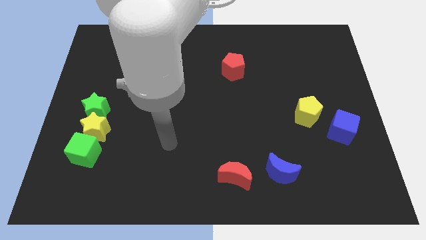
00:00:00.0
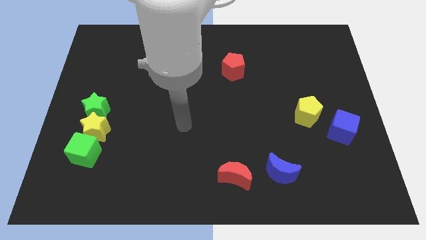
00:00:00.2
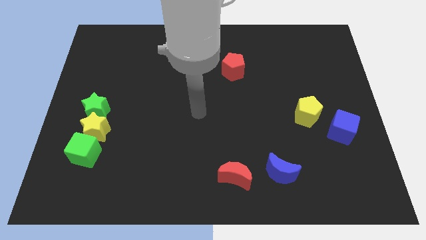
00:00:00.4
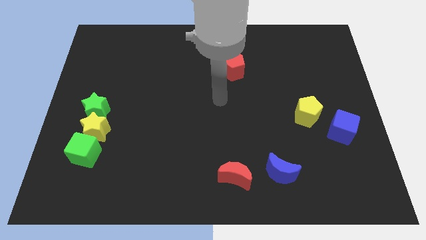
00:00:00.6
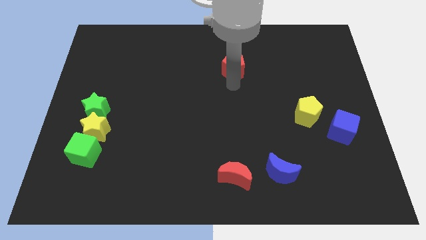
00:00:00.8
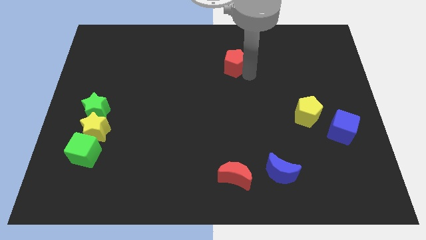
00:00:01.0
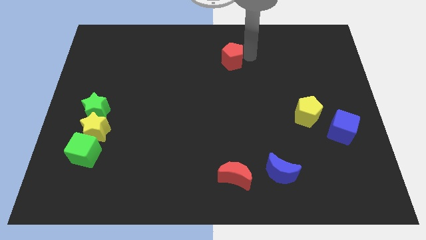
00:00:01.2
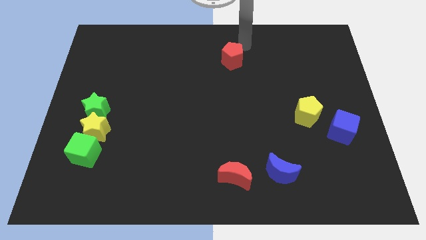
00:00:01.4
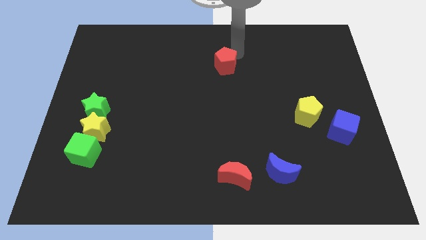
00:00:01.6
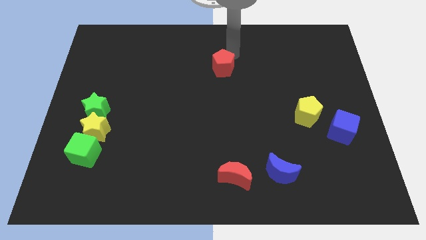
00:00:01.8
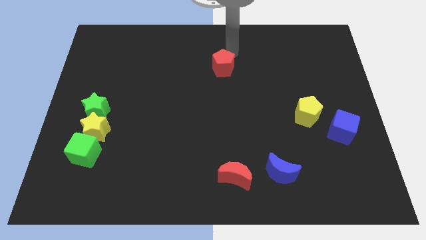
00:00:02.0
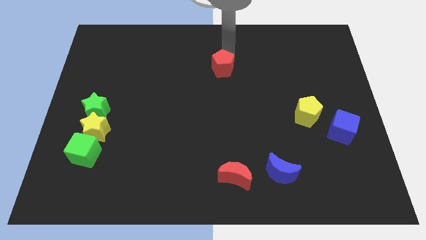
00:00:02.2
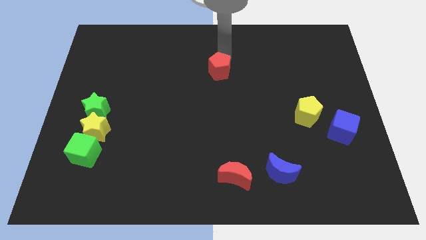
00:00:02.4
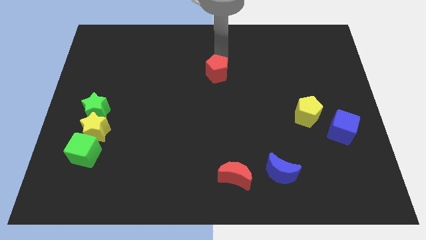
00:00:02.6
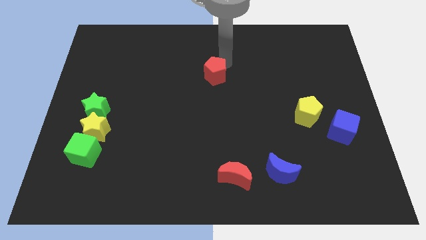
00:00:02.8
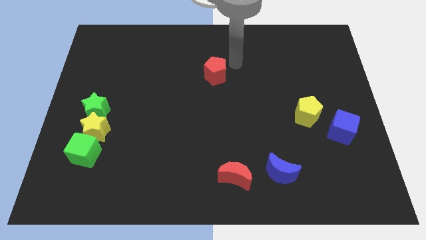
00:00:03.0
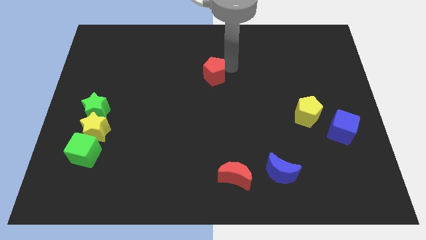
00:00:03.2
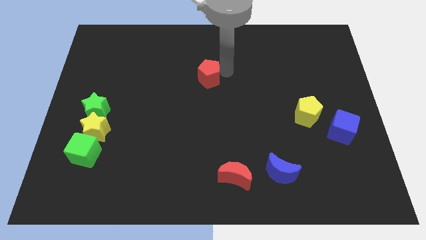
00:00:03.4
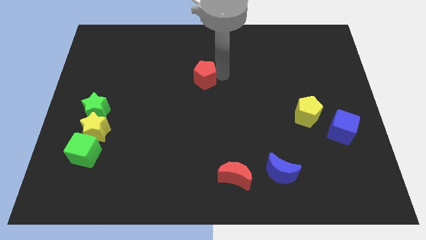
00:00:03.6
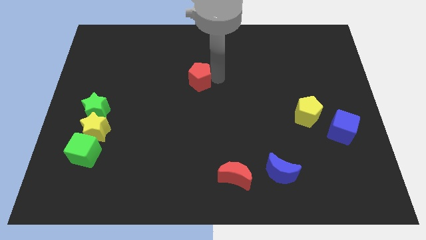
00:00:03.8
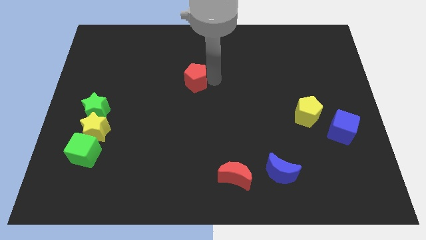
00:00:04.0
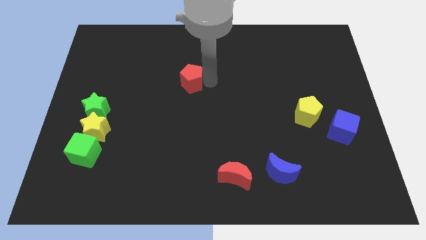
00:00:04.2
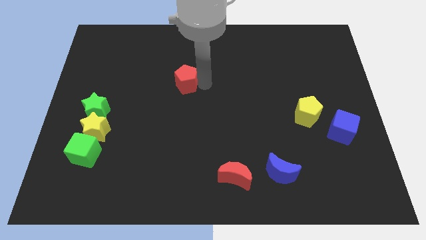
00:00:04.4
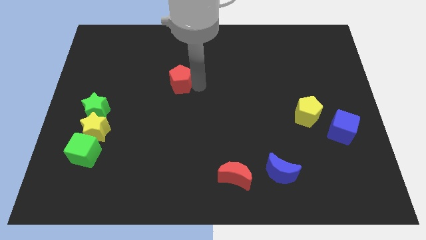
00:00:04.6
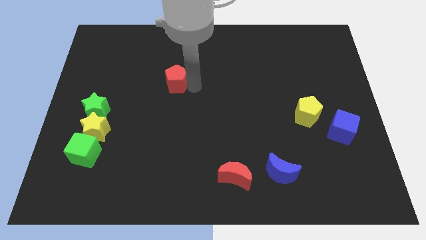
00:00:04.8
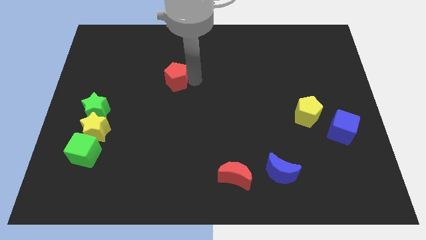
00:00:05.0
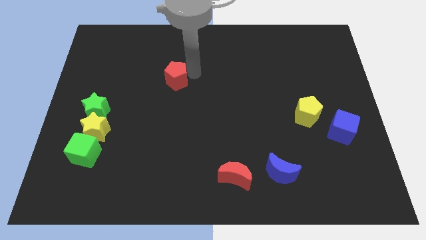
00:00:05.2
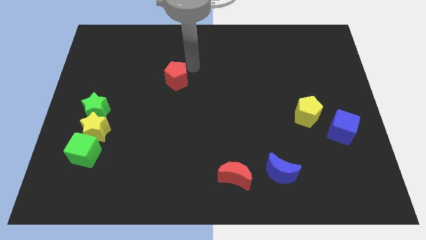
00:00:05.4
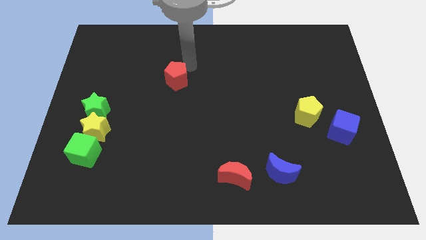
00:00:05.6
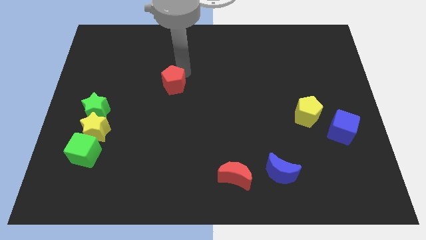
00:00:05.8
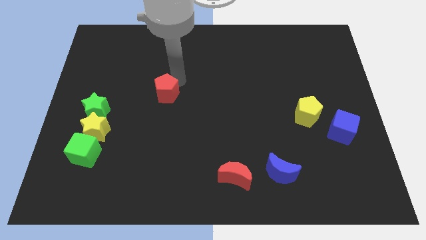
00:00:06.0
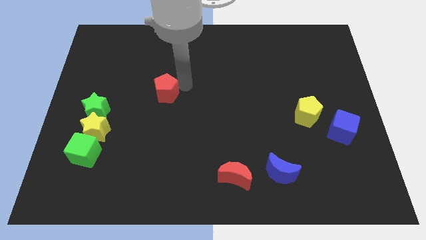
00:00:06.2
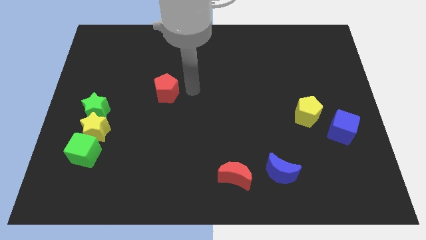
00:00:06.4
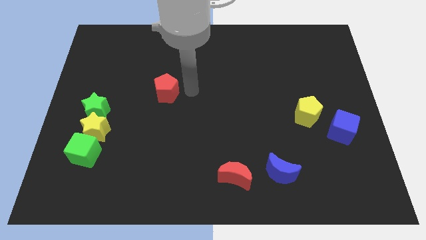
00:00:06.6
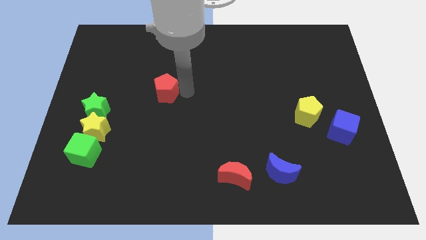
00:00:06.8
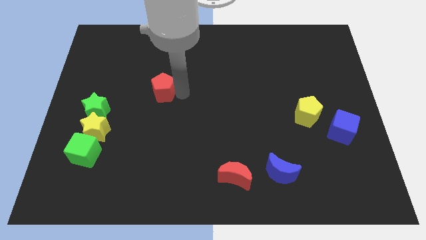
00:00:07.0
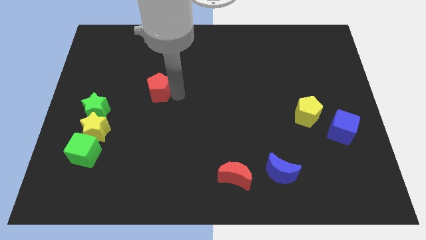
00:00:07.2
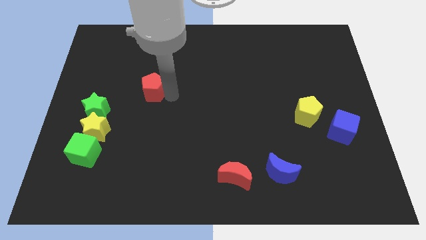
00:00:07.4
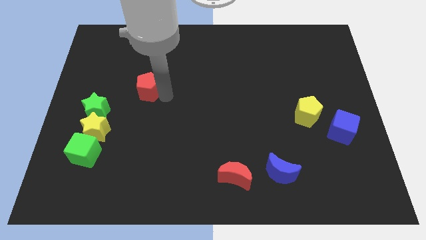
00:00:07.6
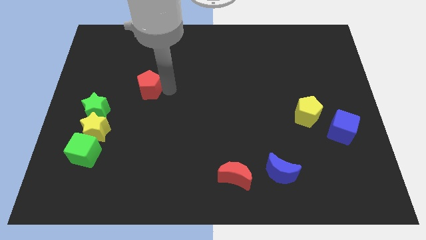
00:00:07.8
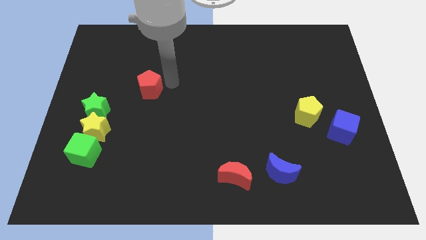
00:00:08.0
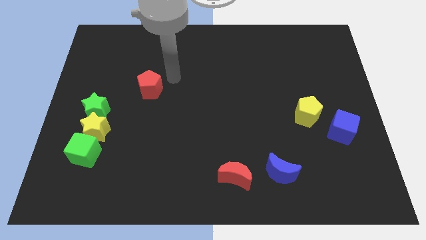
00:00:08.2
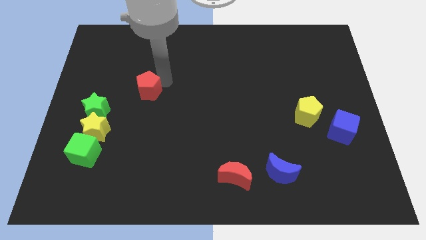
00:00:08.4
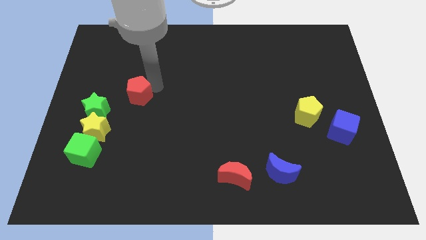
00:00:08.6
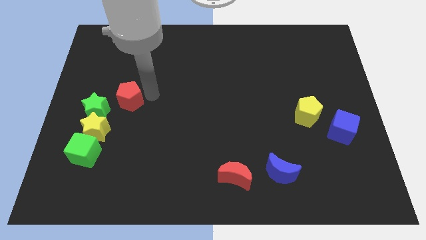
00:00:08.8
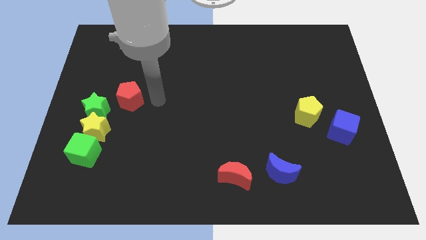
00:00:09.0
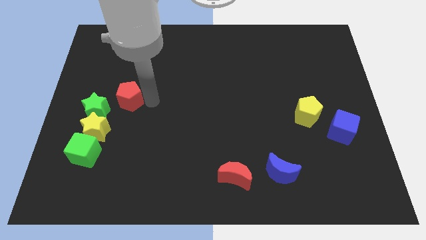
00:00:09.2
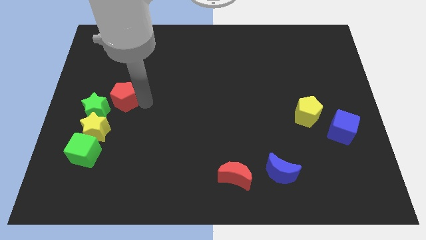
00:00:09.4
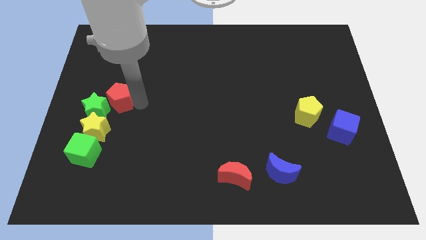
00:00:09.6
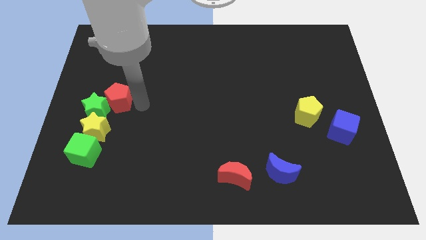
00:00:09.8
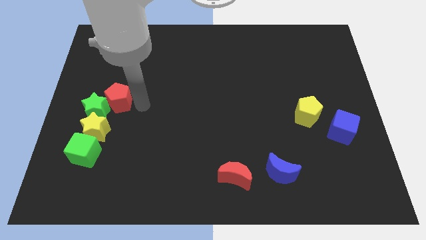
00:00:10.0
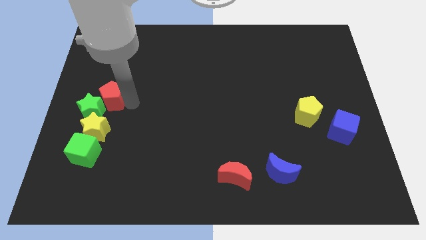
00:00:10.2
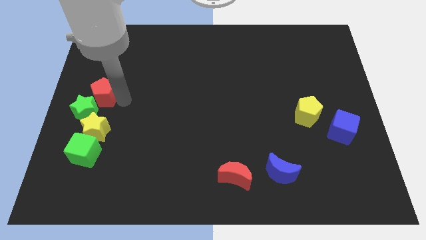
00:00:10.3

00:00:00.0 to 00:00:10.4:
move the red pentagon to the left side

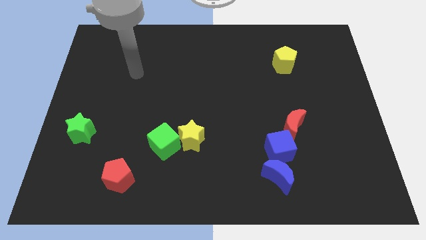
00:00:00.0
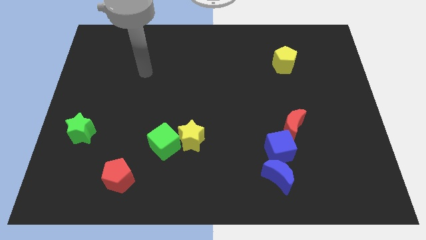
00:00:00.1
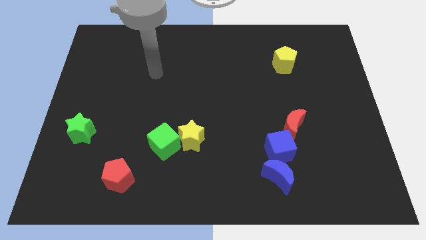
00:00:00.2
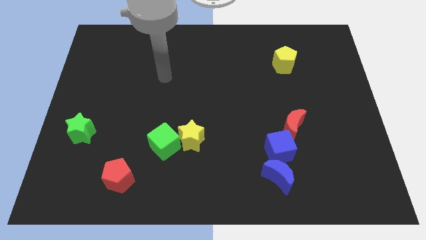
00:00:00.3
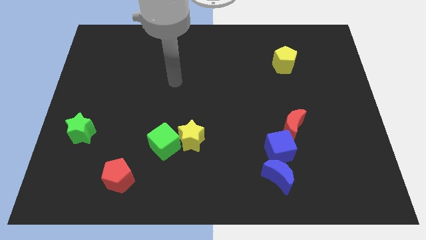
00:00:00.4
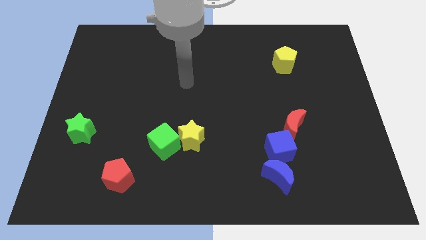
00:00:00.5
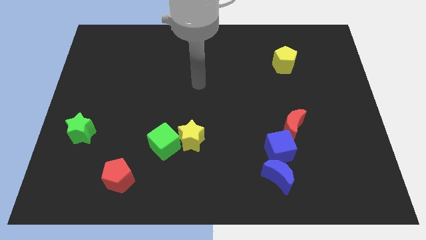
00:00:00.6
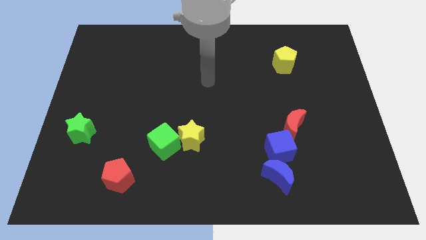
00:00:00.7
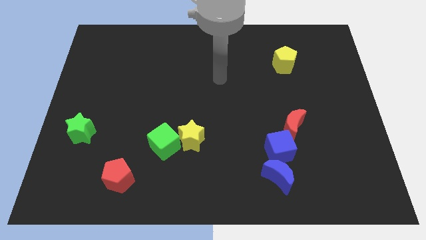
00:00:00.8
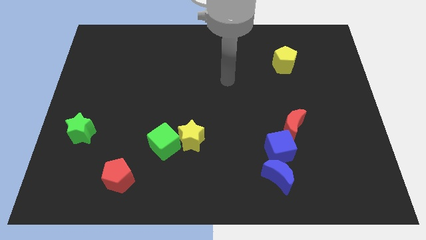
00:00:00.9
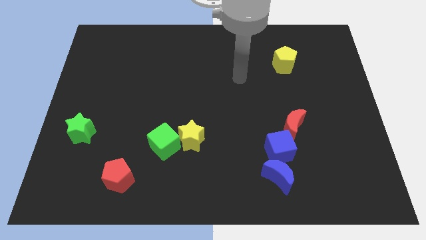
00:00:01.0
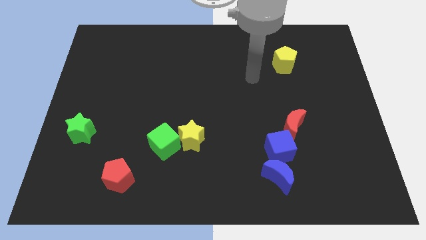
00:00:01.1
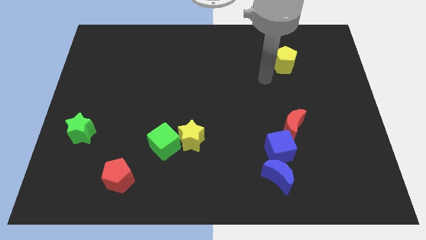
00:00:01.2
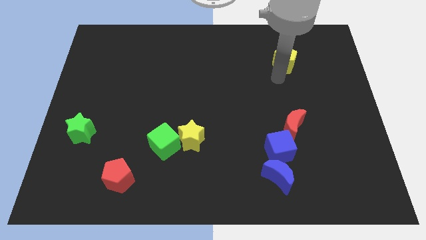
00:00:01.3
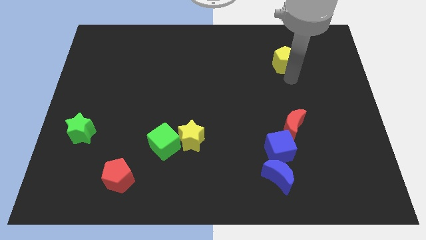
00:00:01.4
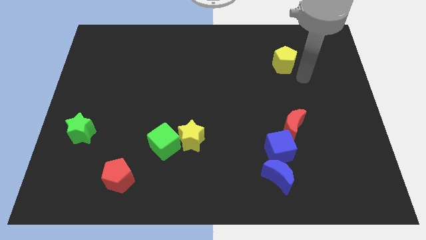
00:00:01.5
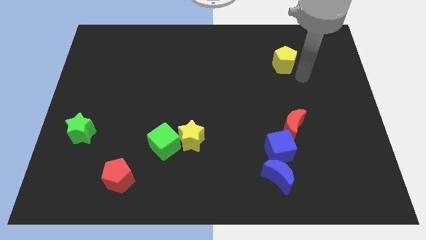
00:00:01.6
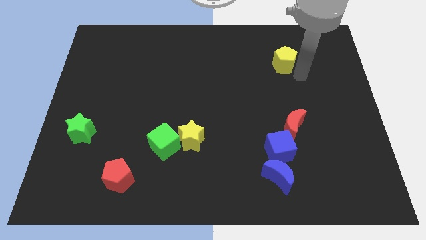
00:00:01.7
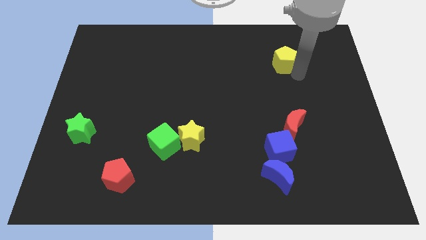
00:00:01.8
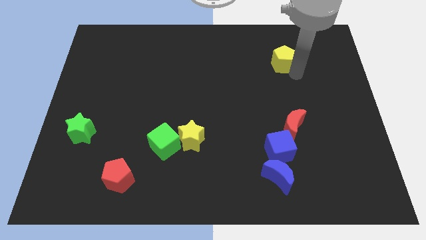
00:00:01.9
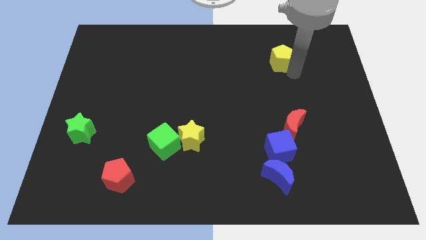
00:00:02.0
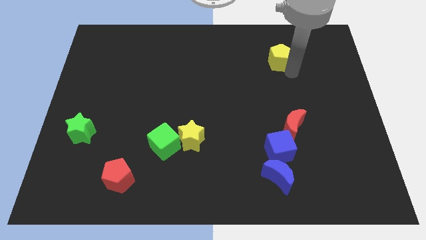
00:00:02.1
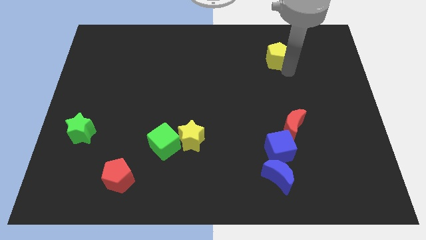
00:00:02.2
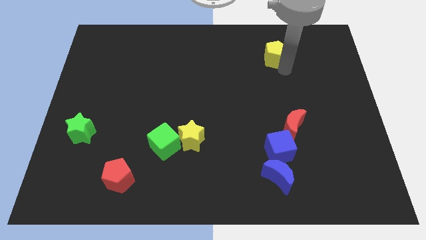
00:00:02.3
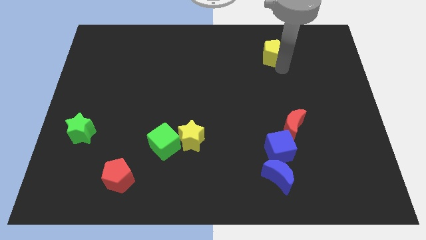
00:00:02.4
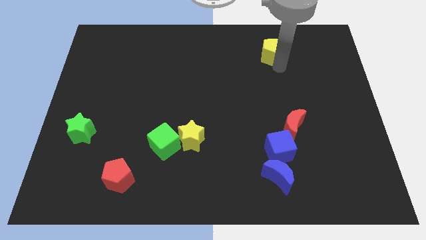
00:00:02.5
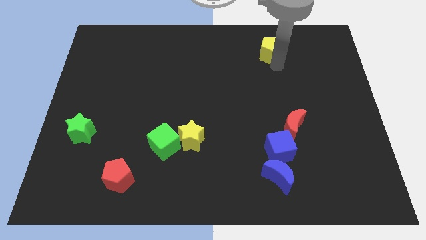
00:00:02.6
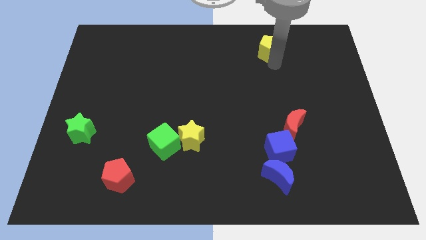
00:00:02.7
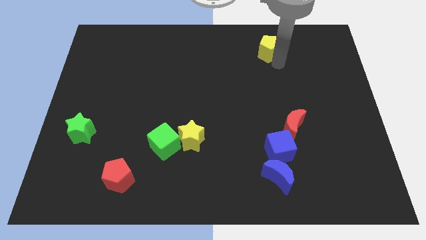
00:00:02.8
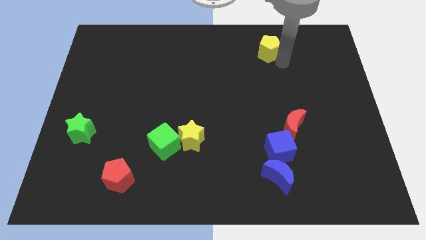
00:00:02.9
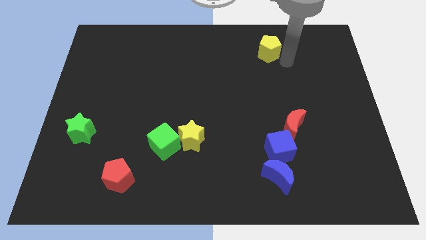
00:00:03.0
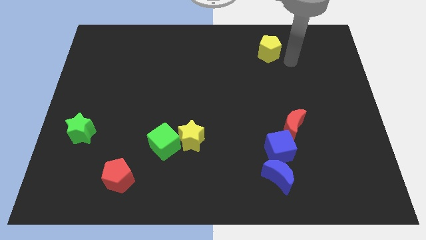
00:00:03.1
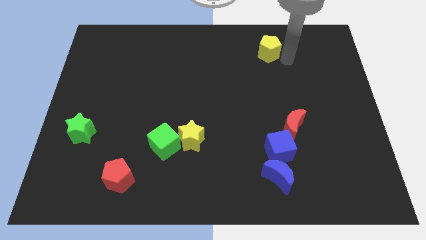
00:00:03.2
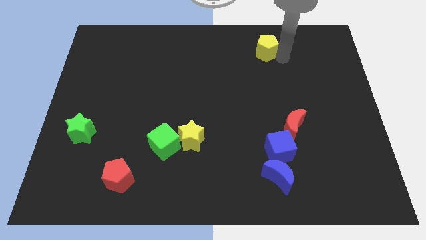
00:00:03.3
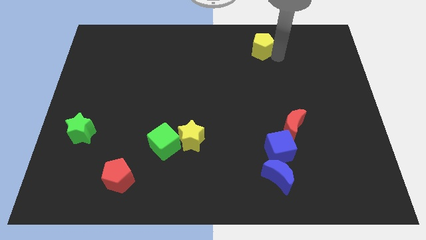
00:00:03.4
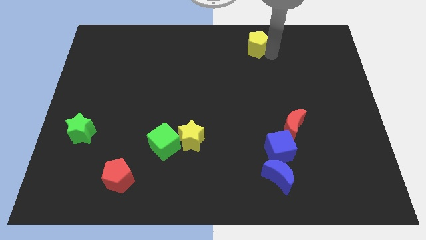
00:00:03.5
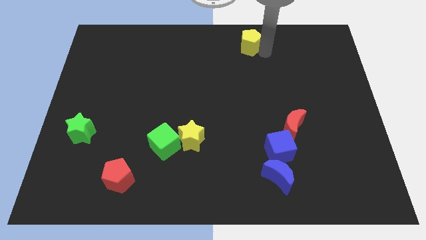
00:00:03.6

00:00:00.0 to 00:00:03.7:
slide the yellow pentagon to the top side
